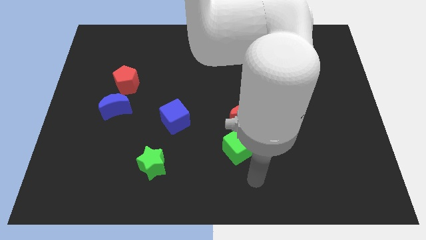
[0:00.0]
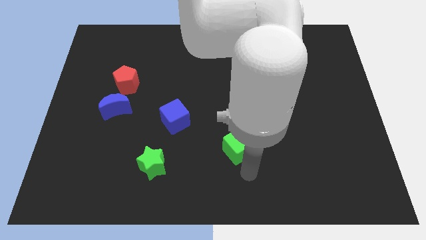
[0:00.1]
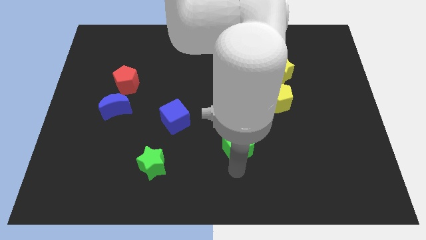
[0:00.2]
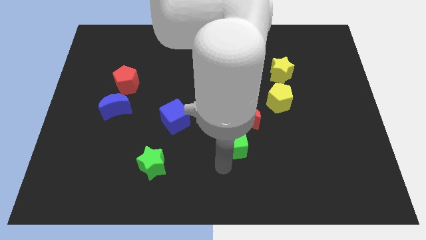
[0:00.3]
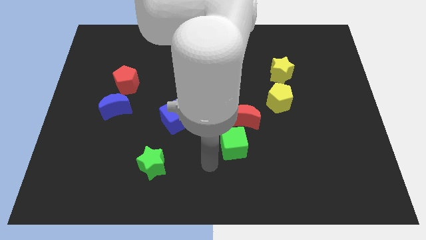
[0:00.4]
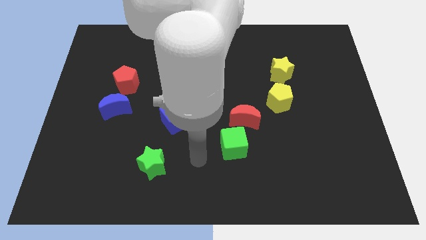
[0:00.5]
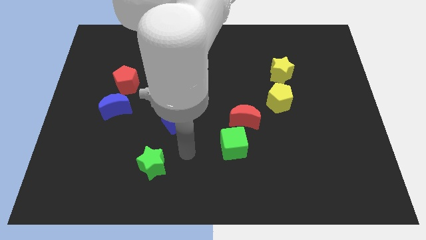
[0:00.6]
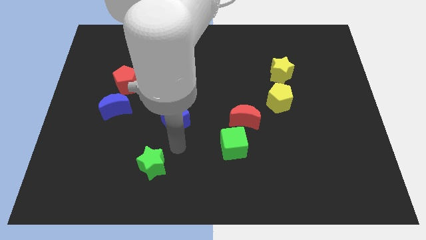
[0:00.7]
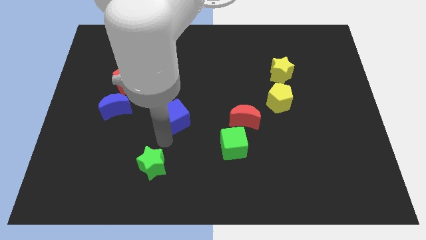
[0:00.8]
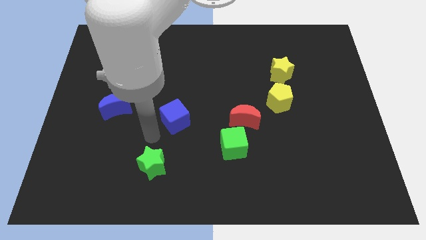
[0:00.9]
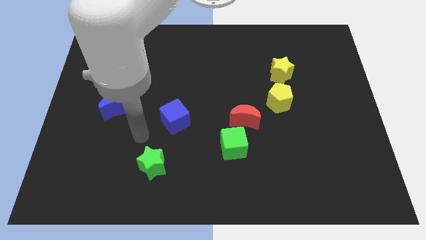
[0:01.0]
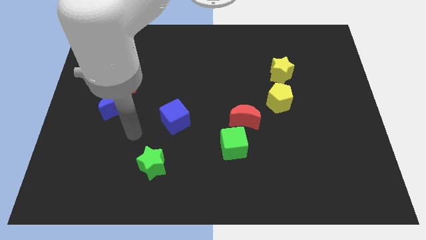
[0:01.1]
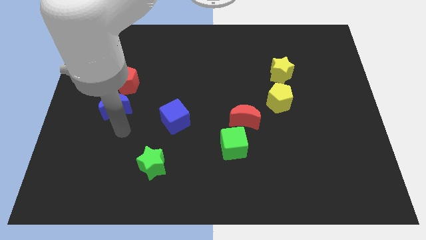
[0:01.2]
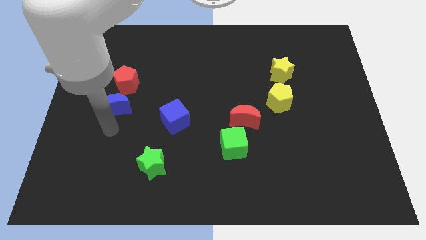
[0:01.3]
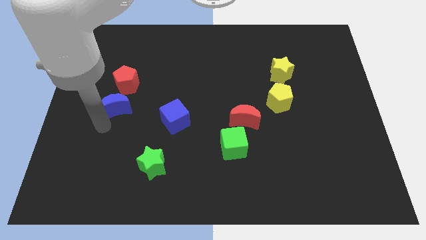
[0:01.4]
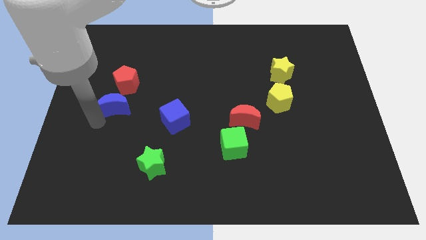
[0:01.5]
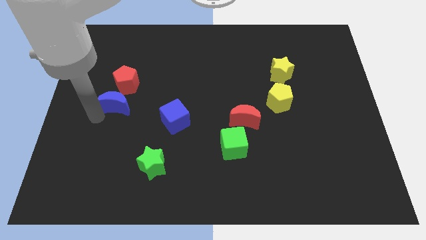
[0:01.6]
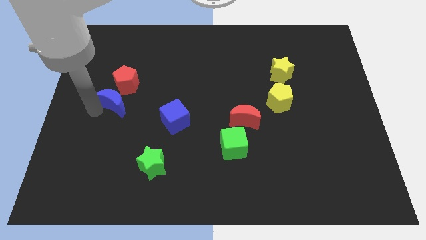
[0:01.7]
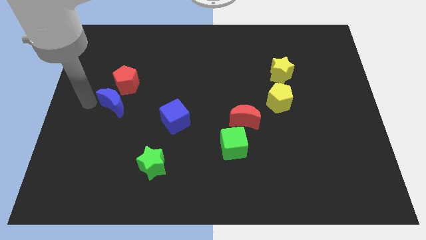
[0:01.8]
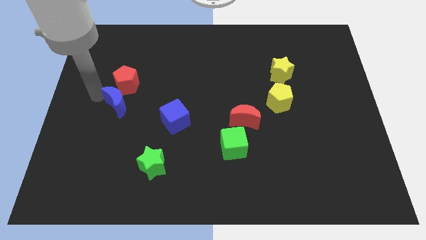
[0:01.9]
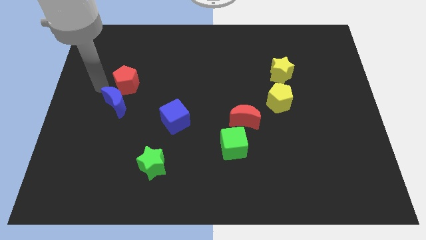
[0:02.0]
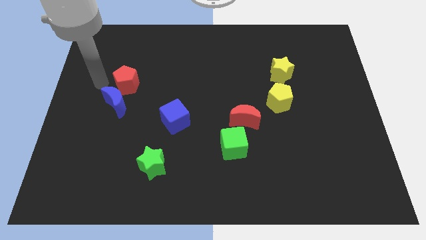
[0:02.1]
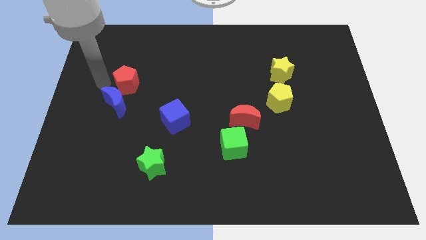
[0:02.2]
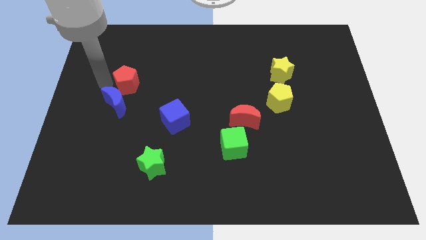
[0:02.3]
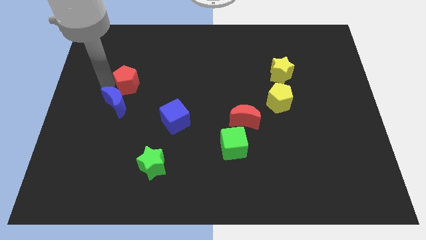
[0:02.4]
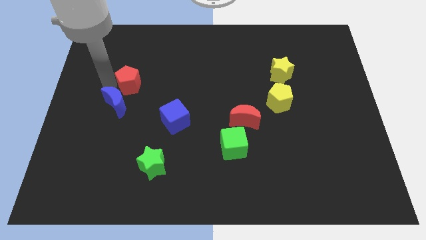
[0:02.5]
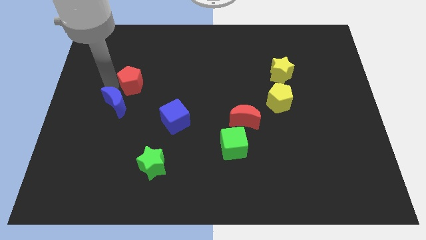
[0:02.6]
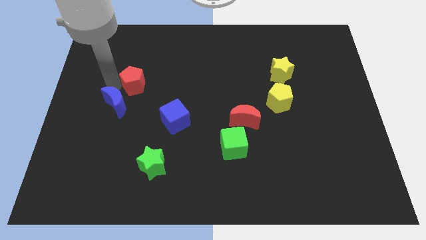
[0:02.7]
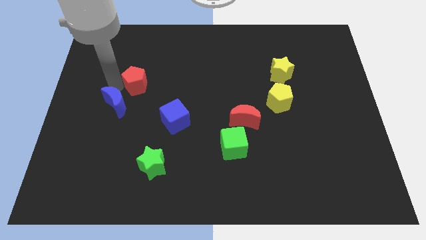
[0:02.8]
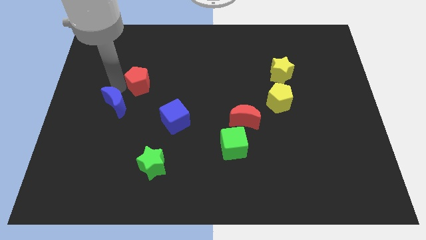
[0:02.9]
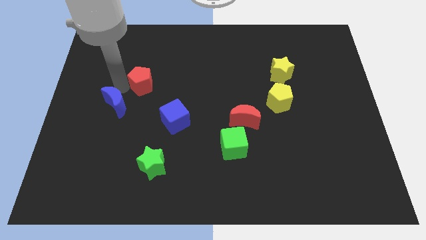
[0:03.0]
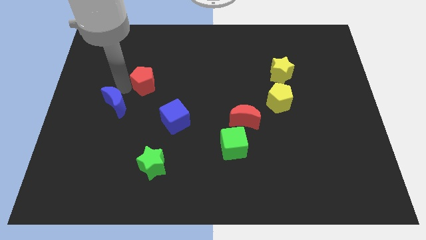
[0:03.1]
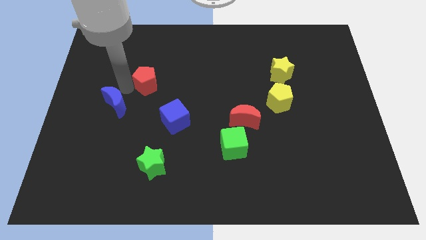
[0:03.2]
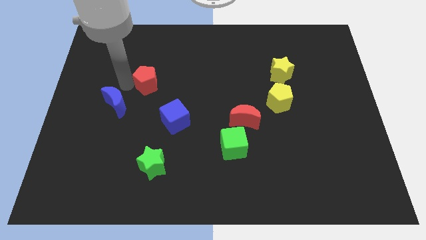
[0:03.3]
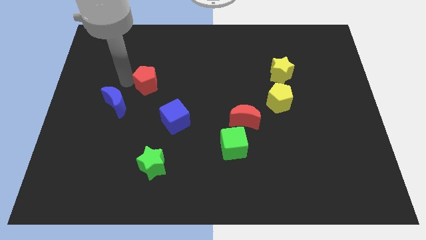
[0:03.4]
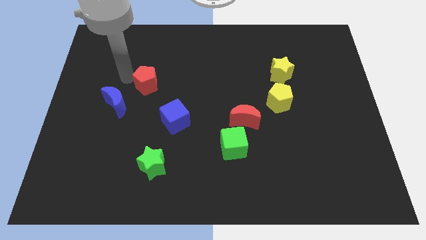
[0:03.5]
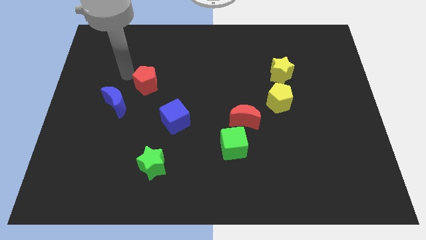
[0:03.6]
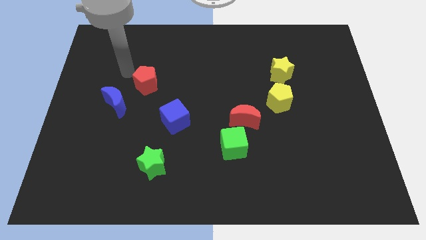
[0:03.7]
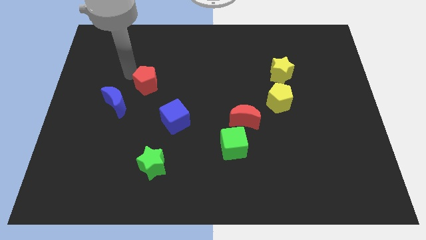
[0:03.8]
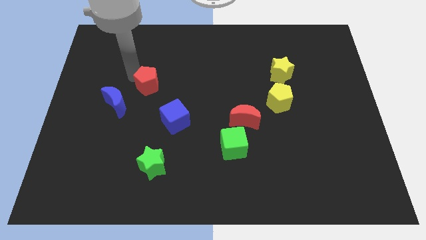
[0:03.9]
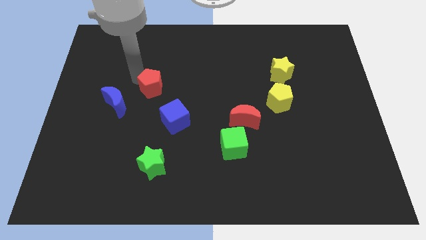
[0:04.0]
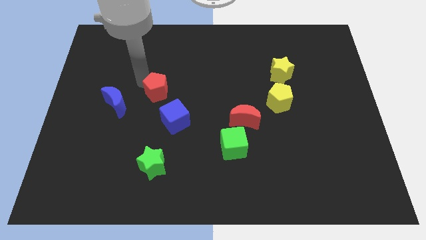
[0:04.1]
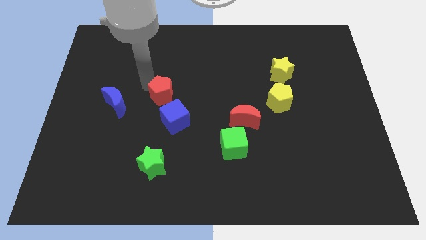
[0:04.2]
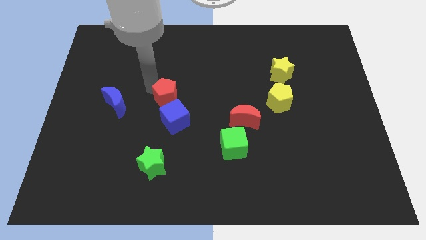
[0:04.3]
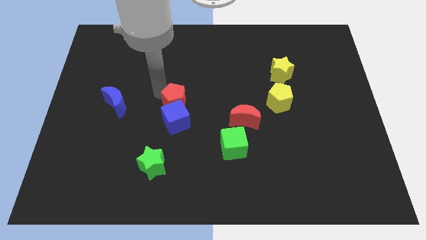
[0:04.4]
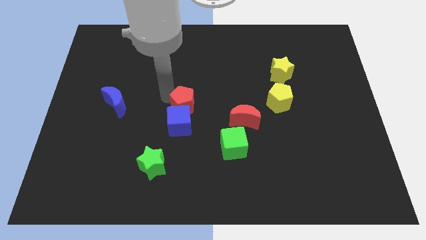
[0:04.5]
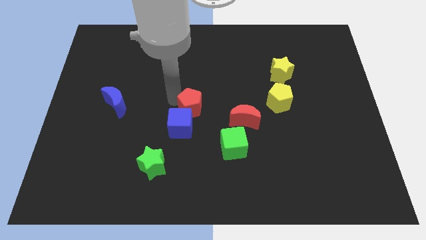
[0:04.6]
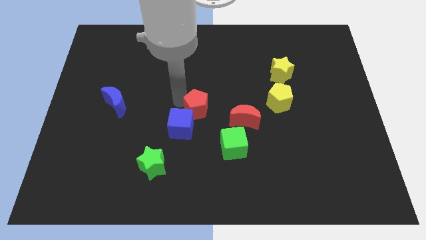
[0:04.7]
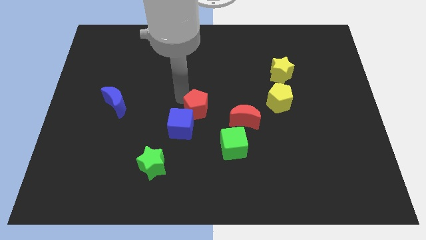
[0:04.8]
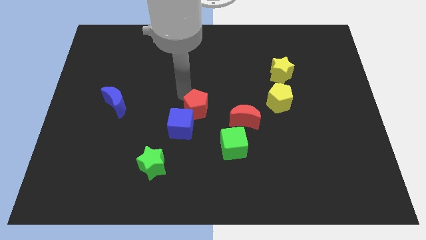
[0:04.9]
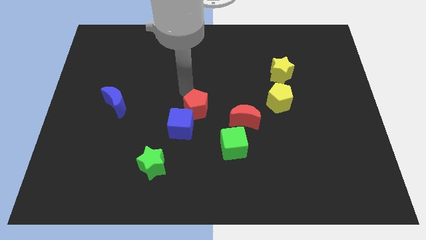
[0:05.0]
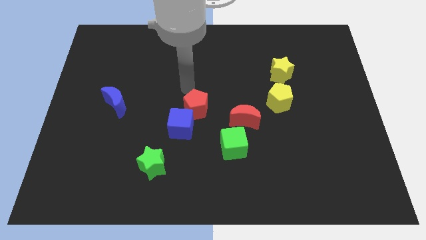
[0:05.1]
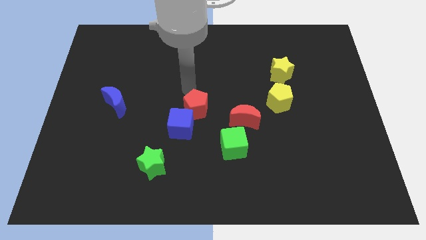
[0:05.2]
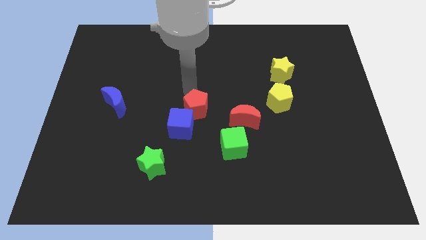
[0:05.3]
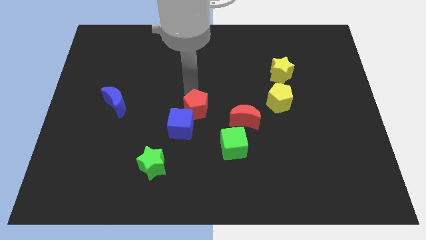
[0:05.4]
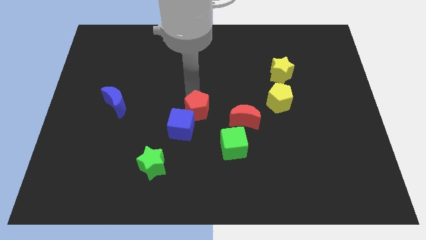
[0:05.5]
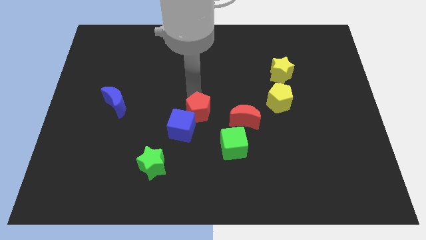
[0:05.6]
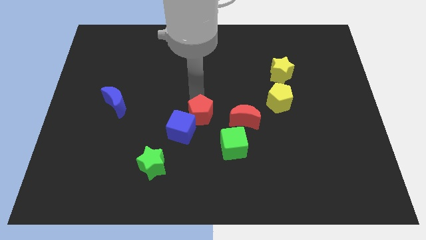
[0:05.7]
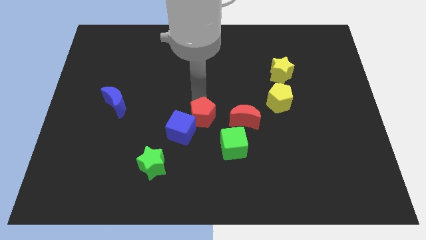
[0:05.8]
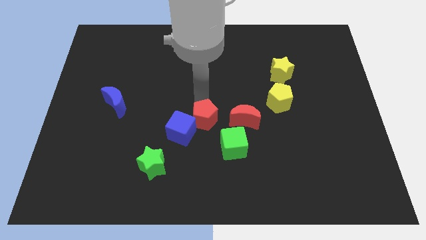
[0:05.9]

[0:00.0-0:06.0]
move the red pentagon down and then to the right

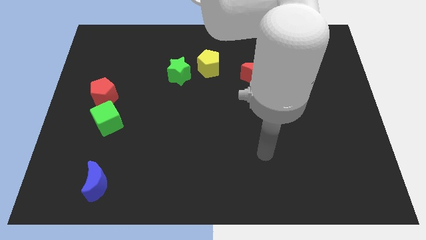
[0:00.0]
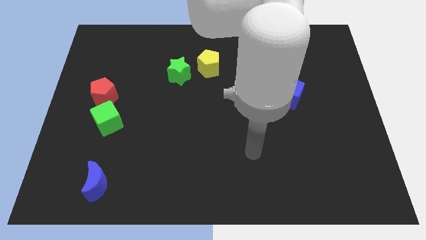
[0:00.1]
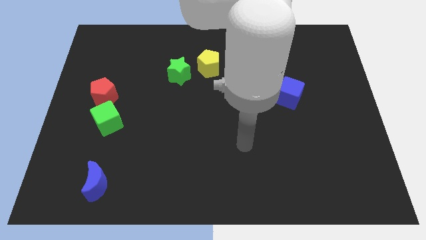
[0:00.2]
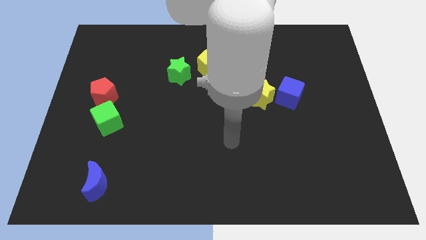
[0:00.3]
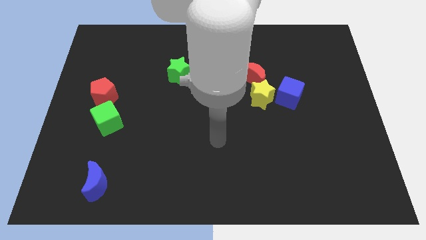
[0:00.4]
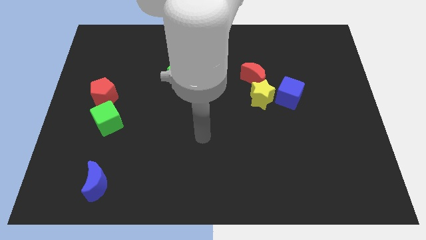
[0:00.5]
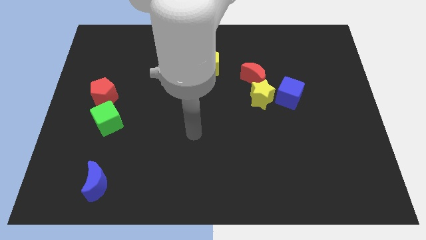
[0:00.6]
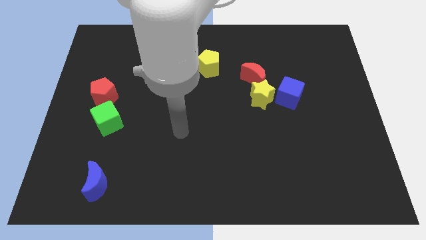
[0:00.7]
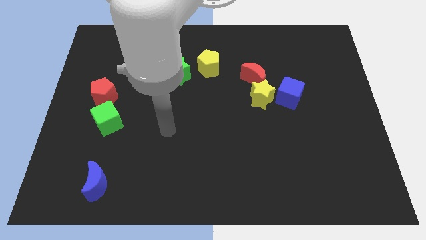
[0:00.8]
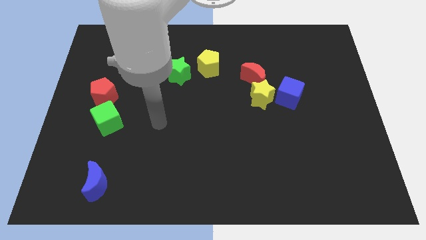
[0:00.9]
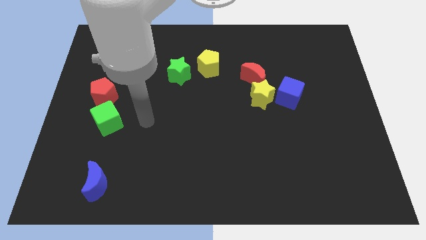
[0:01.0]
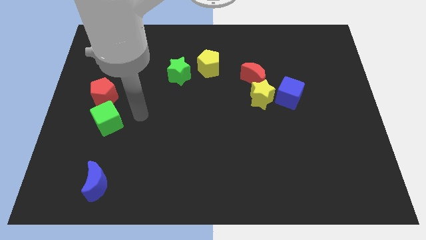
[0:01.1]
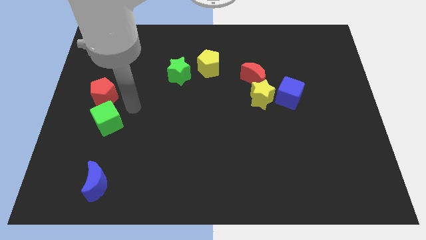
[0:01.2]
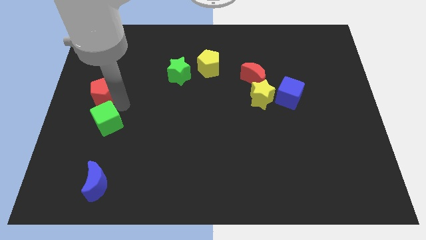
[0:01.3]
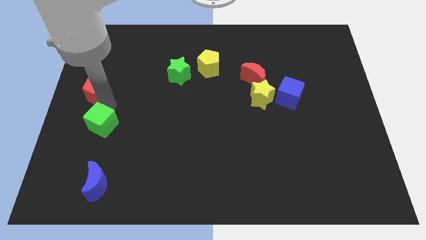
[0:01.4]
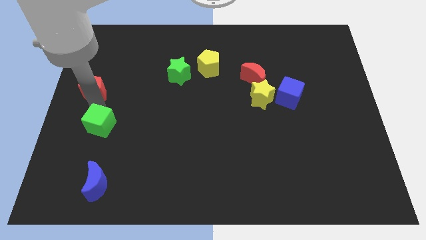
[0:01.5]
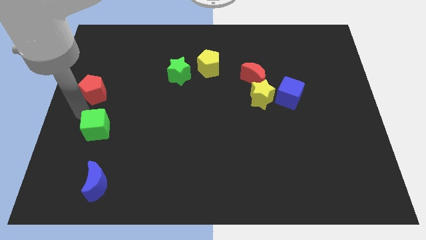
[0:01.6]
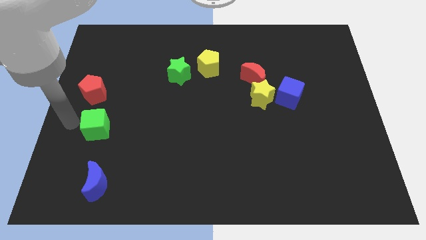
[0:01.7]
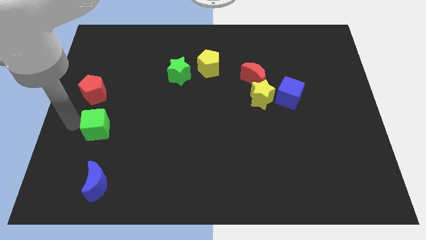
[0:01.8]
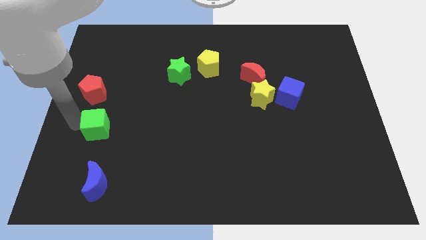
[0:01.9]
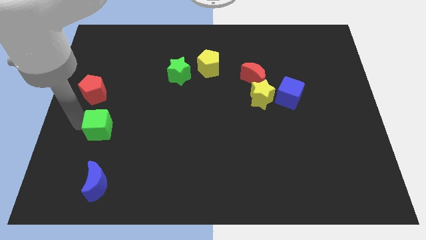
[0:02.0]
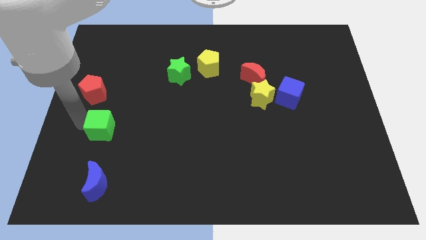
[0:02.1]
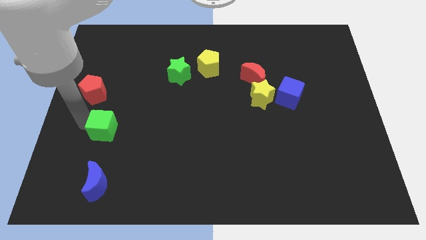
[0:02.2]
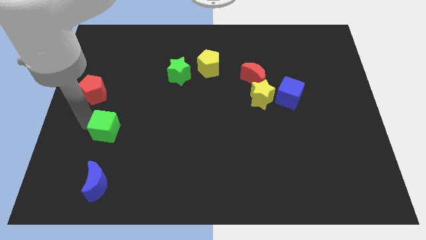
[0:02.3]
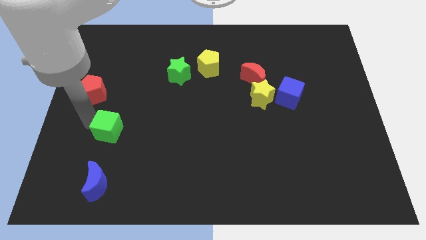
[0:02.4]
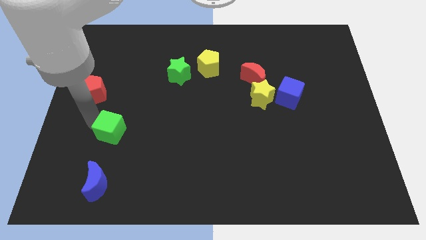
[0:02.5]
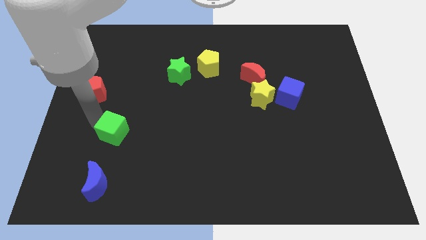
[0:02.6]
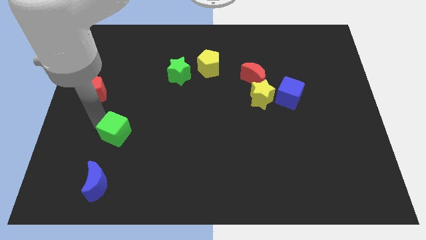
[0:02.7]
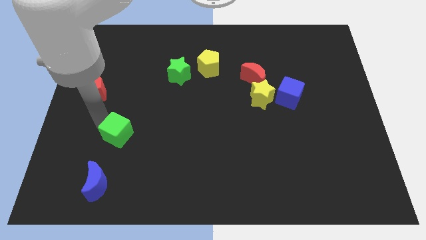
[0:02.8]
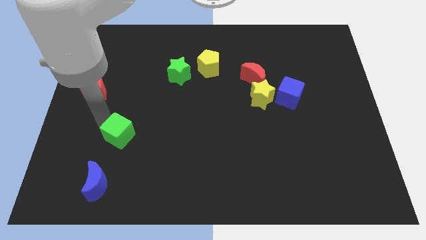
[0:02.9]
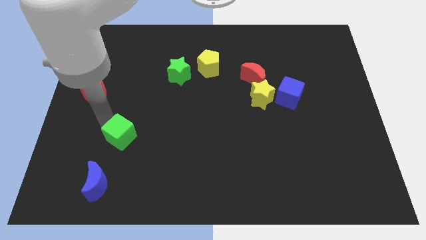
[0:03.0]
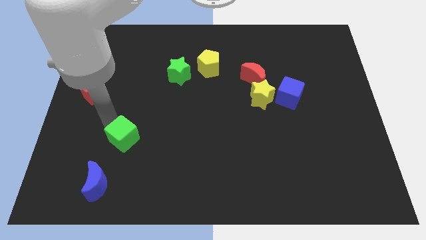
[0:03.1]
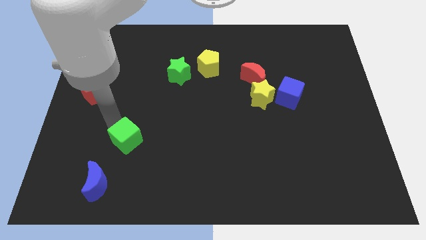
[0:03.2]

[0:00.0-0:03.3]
slide the green cube a bit downwards and then to the right
